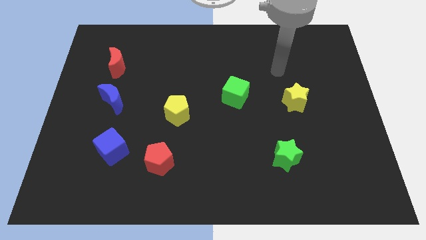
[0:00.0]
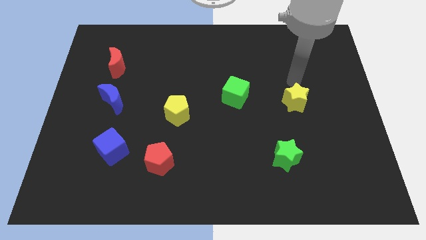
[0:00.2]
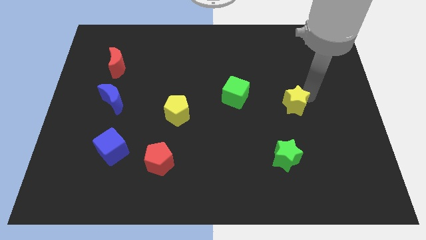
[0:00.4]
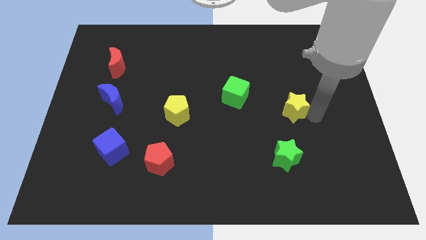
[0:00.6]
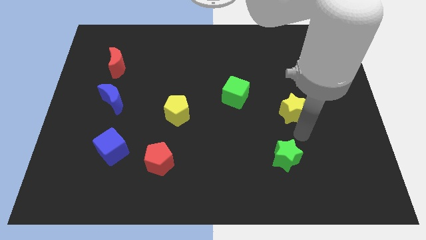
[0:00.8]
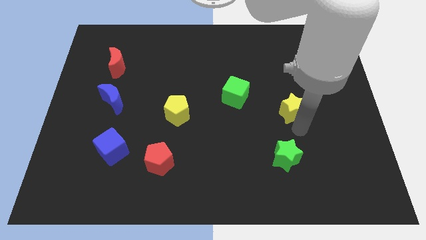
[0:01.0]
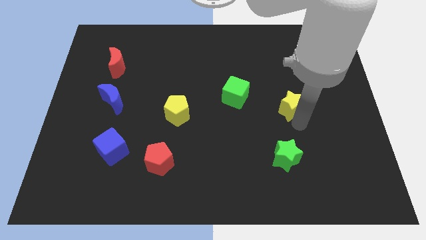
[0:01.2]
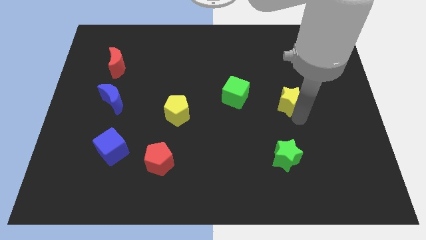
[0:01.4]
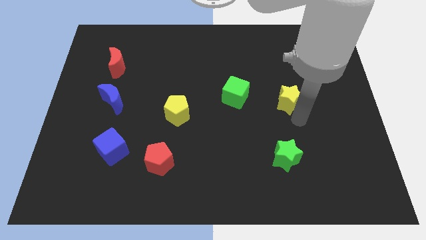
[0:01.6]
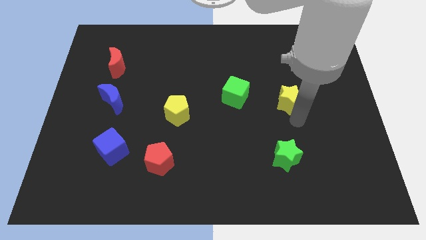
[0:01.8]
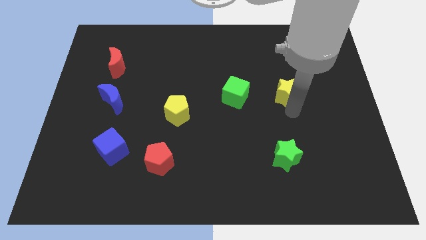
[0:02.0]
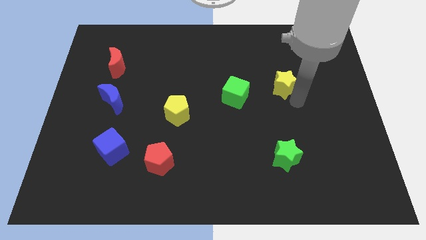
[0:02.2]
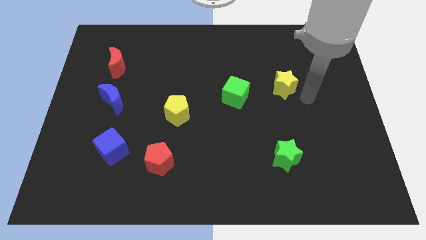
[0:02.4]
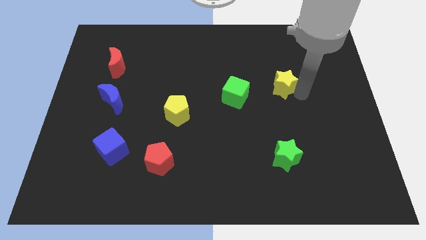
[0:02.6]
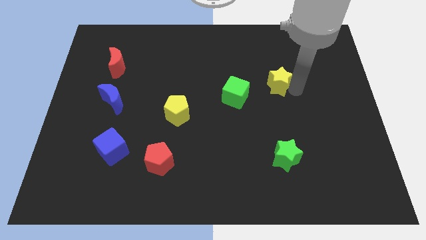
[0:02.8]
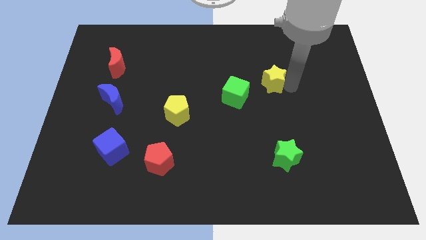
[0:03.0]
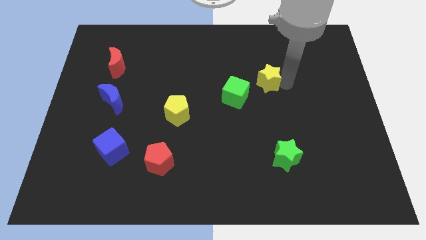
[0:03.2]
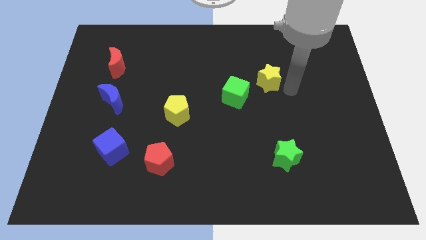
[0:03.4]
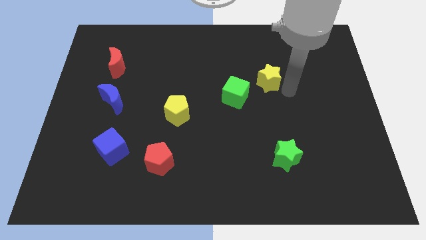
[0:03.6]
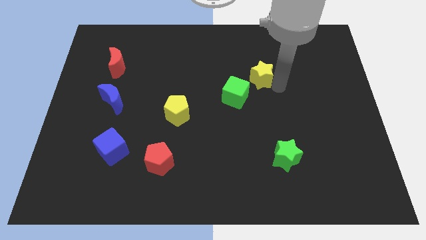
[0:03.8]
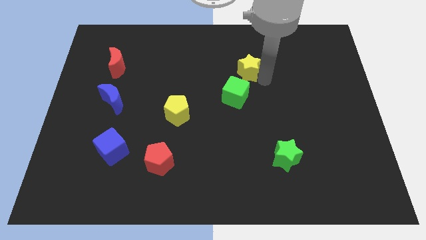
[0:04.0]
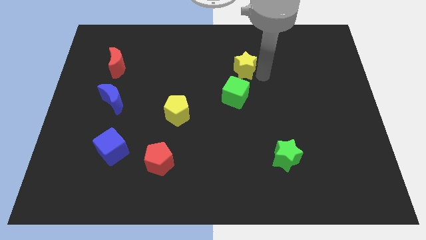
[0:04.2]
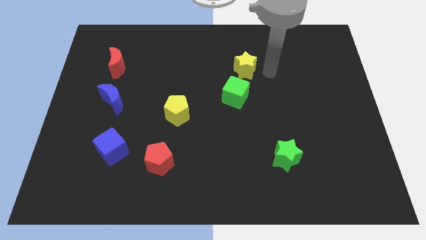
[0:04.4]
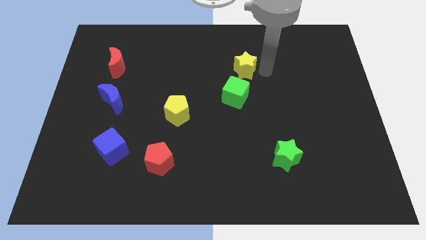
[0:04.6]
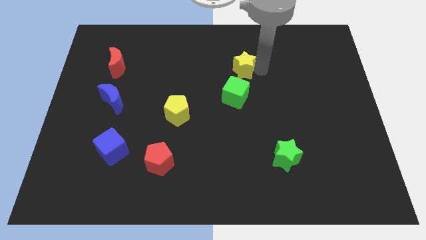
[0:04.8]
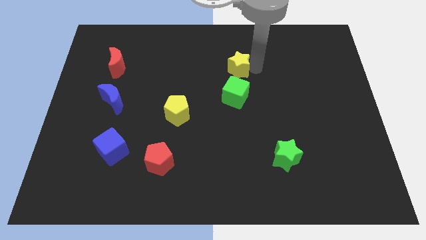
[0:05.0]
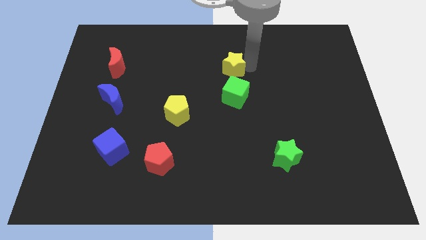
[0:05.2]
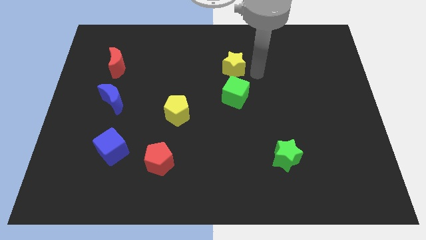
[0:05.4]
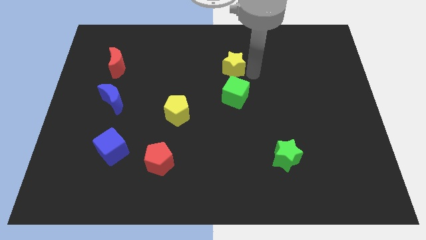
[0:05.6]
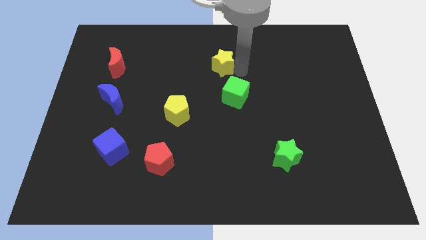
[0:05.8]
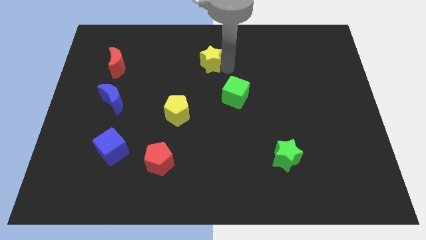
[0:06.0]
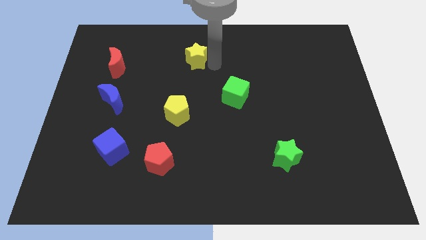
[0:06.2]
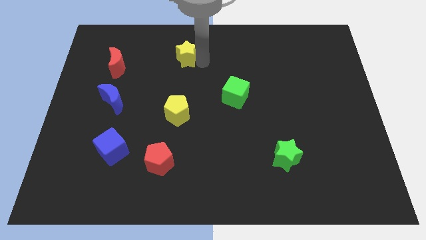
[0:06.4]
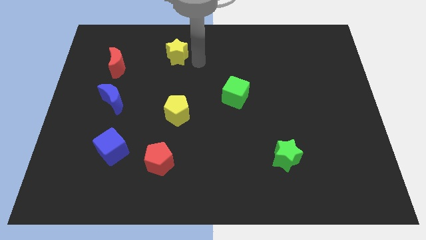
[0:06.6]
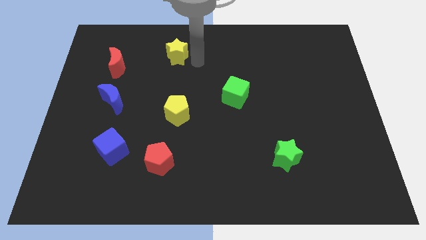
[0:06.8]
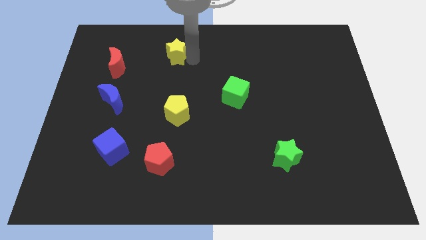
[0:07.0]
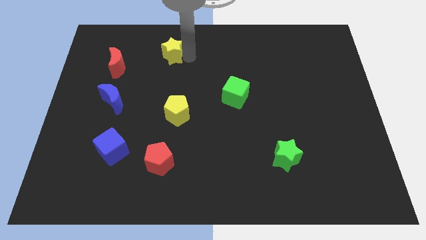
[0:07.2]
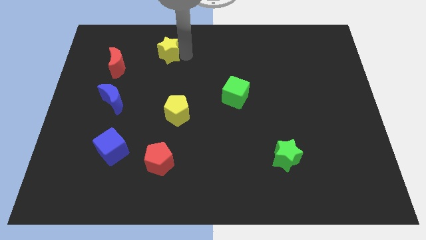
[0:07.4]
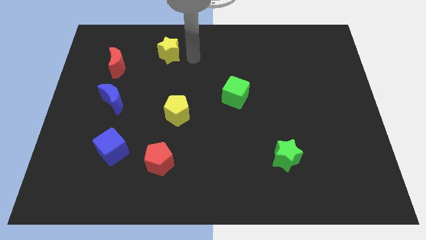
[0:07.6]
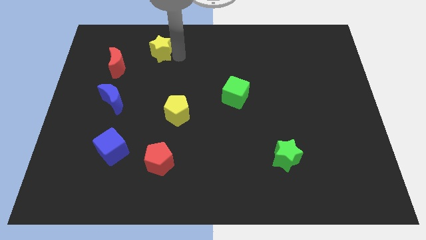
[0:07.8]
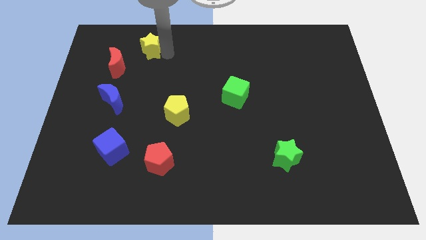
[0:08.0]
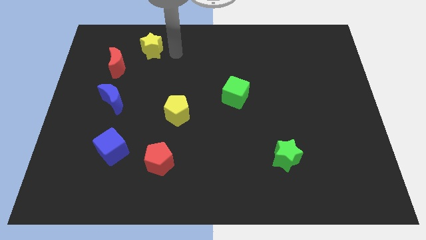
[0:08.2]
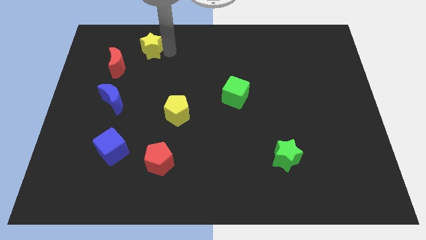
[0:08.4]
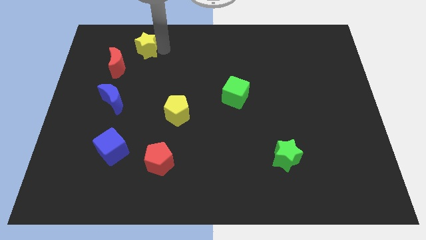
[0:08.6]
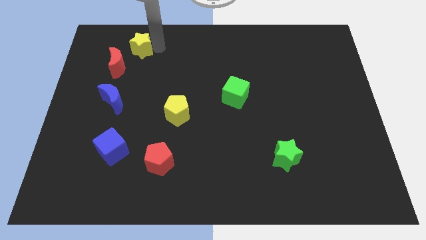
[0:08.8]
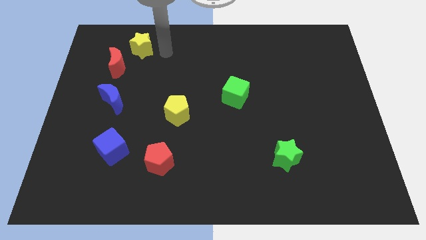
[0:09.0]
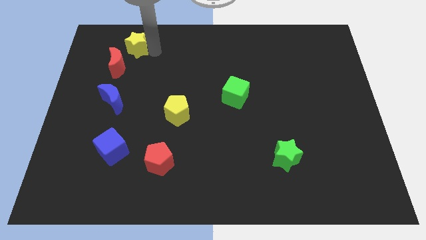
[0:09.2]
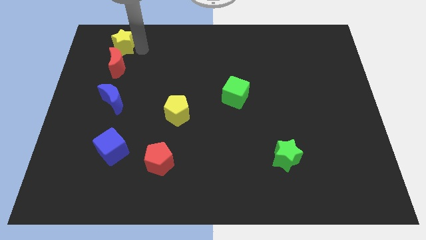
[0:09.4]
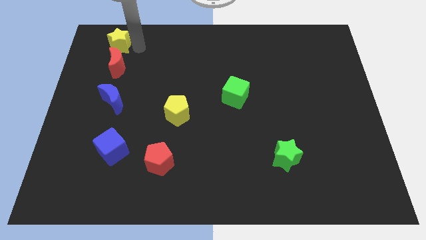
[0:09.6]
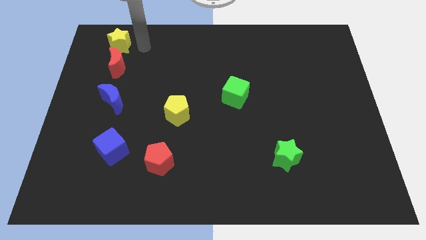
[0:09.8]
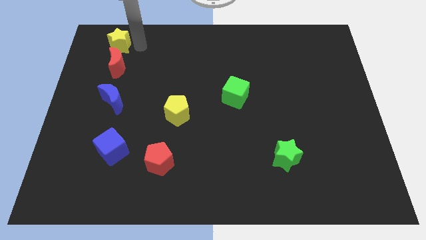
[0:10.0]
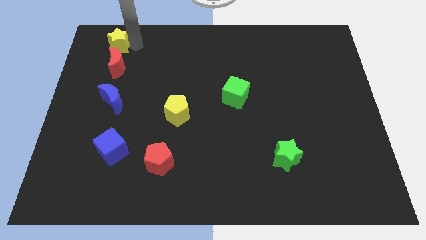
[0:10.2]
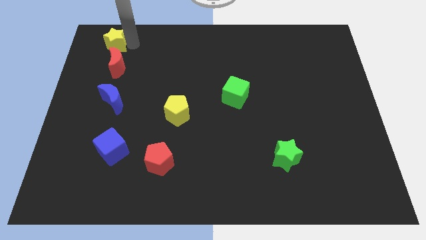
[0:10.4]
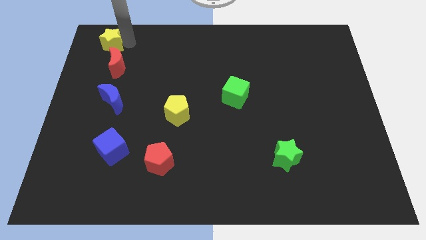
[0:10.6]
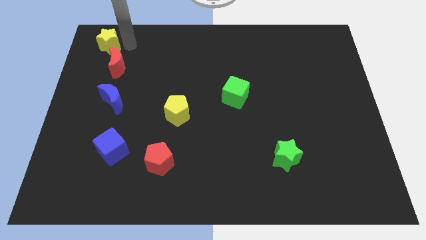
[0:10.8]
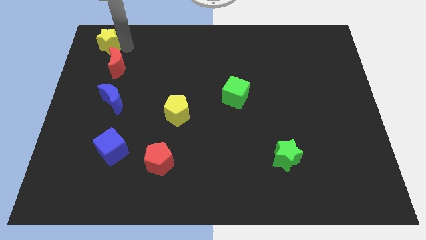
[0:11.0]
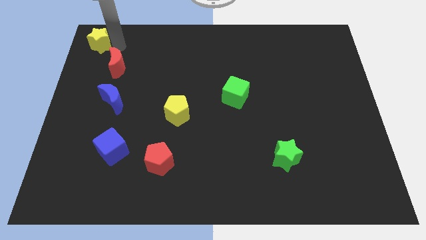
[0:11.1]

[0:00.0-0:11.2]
put the yellow star to the top left of the board
